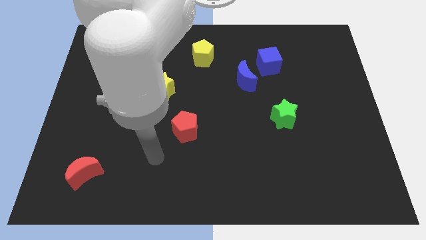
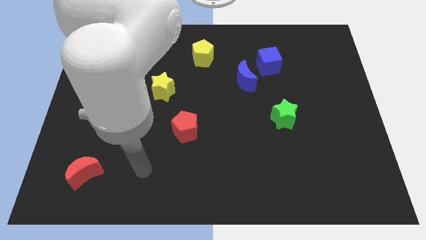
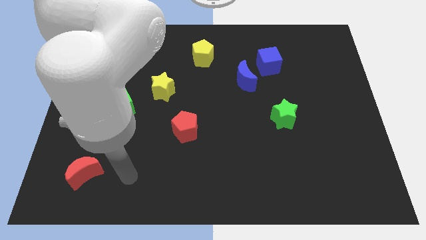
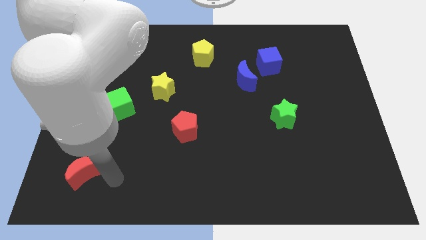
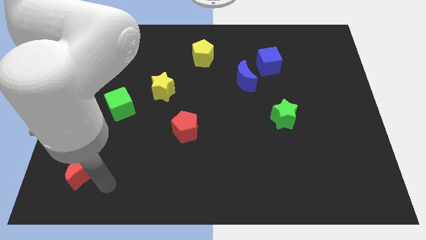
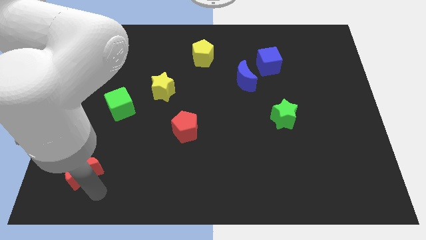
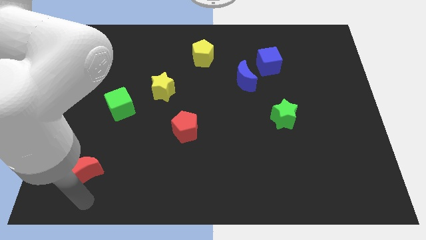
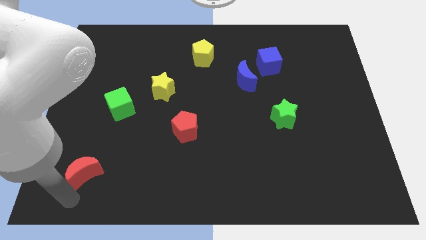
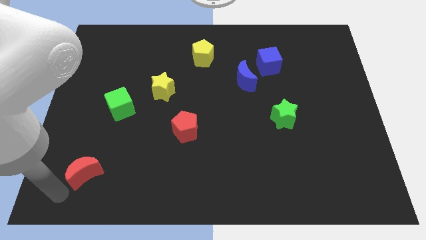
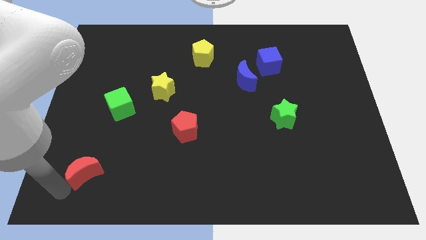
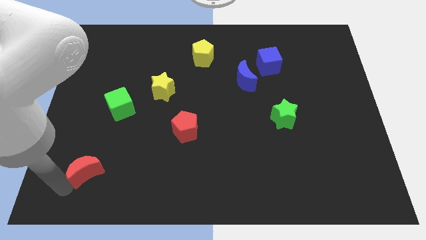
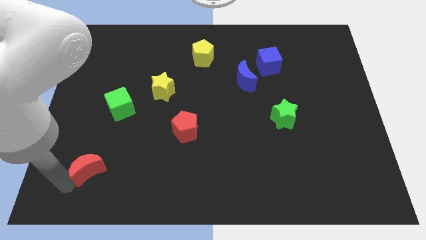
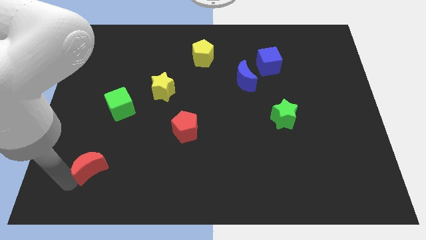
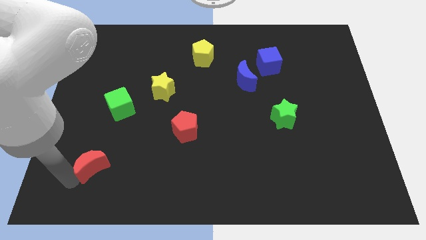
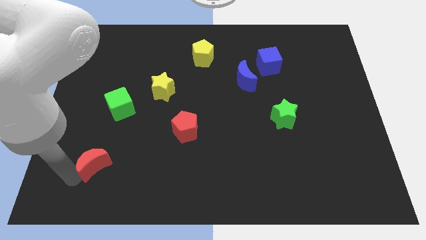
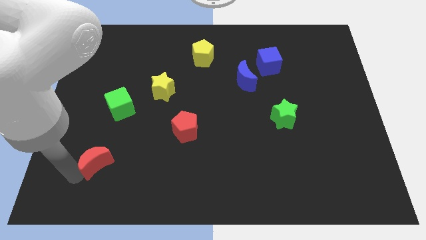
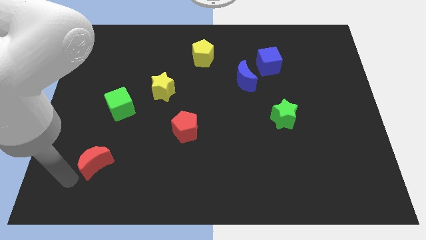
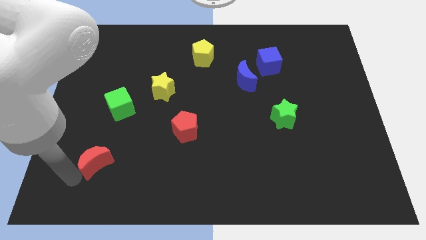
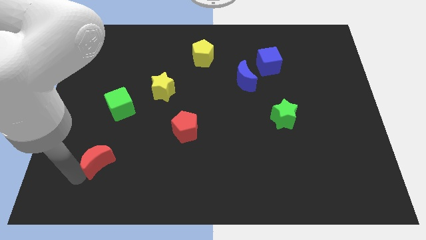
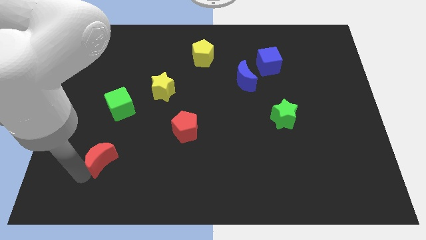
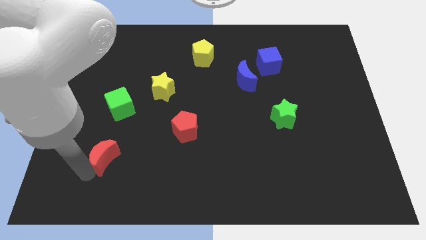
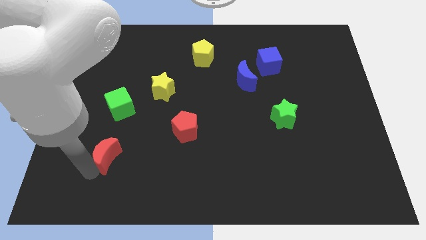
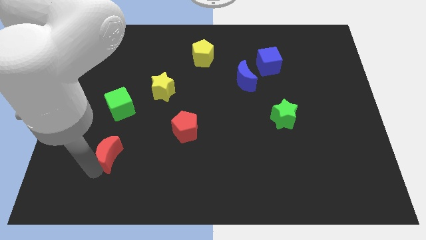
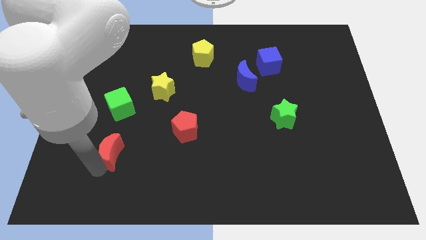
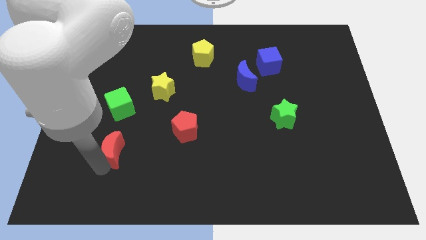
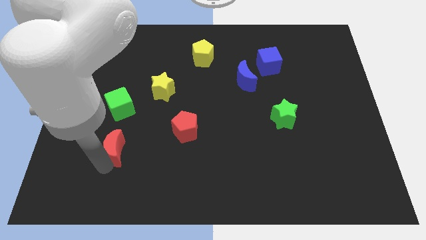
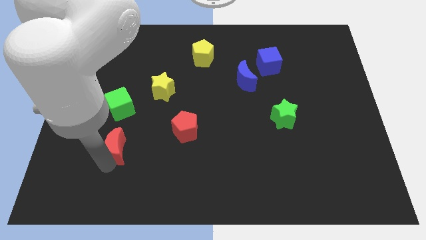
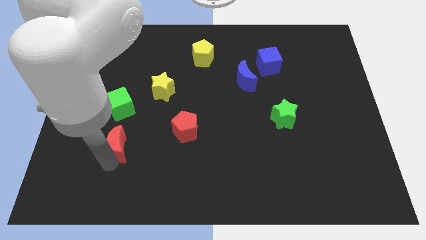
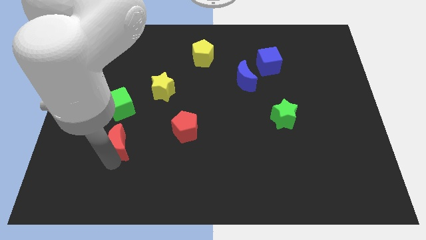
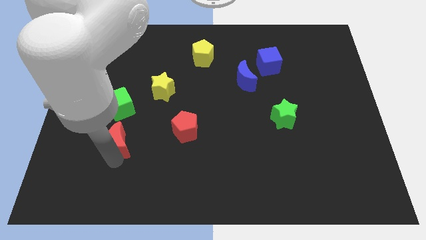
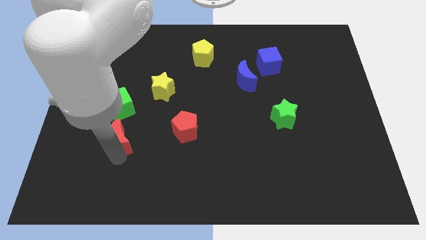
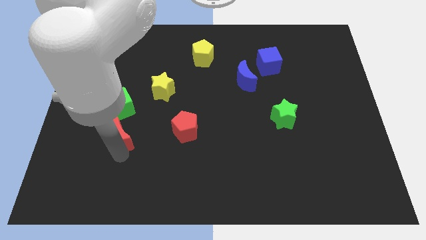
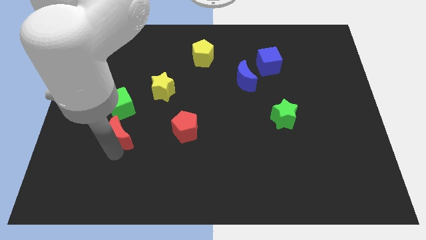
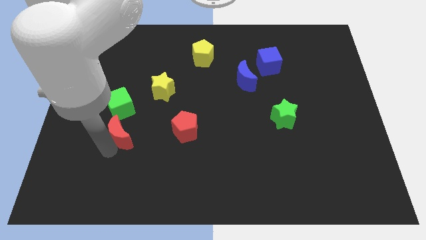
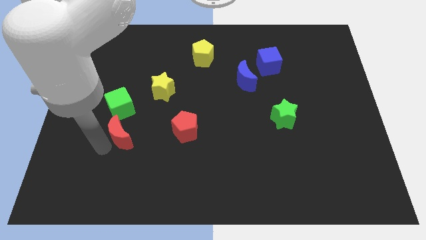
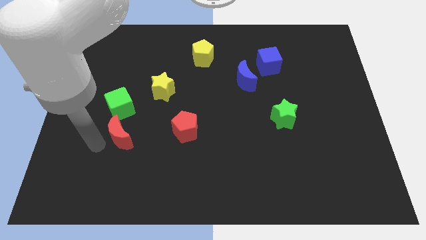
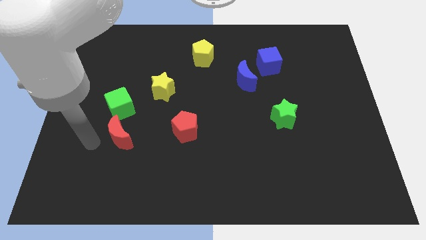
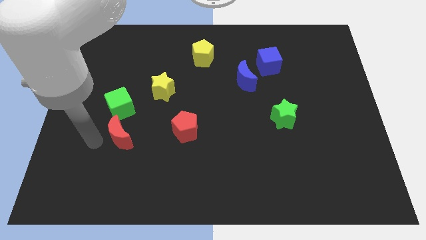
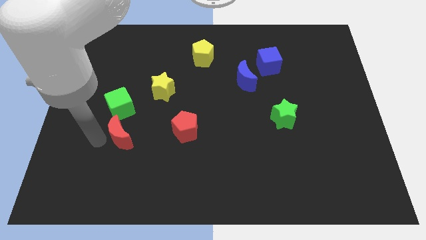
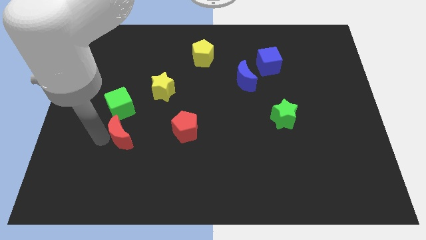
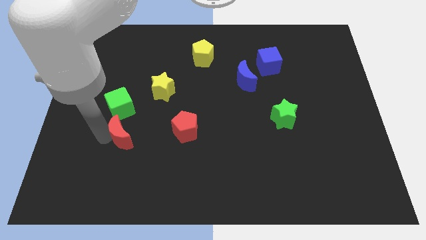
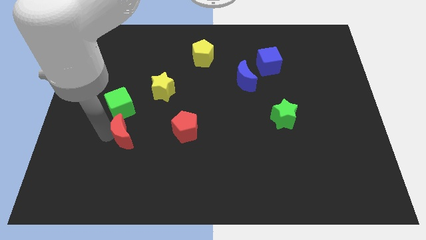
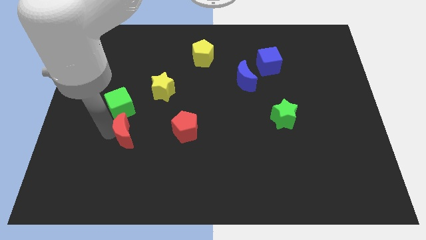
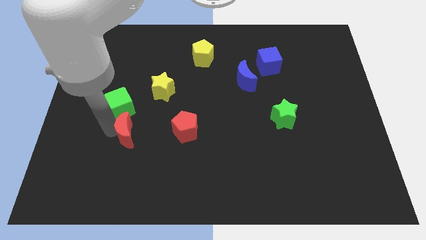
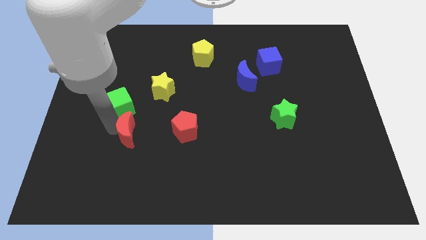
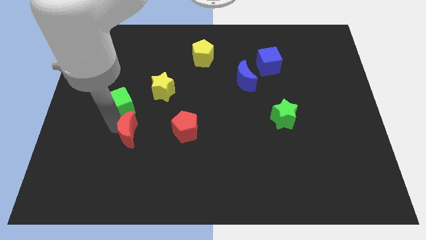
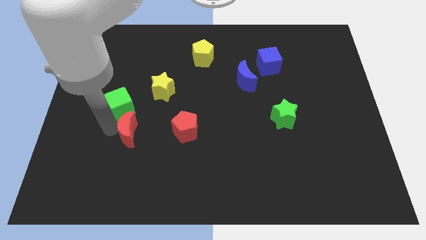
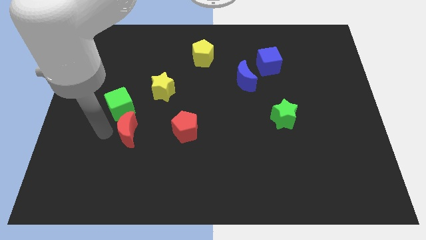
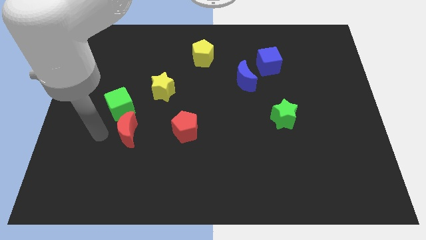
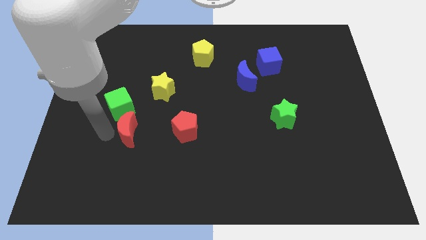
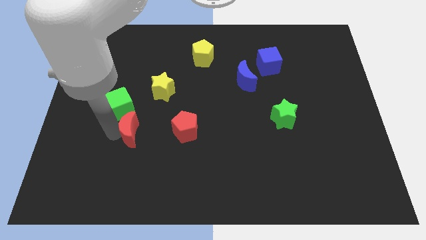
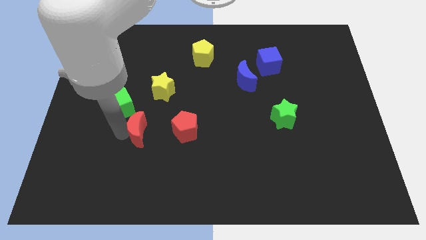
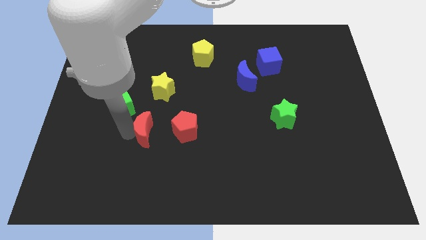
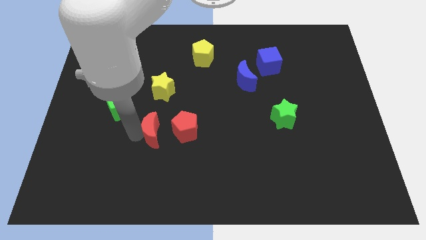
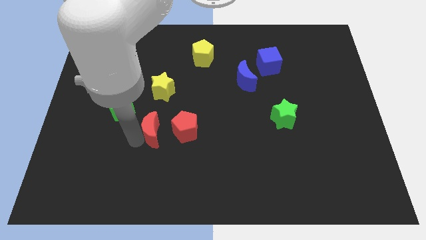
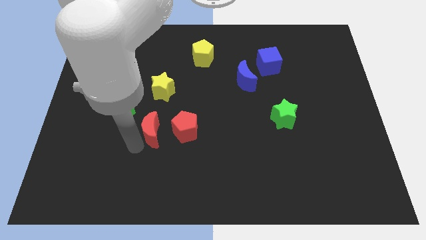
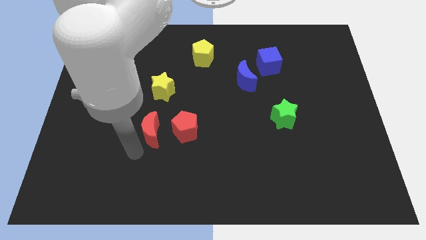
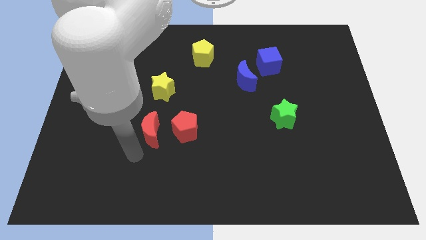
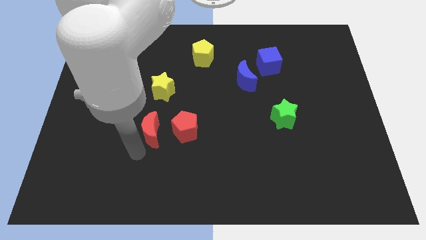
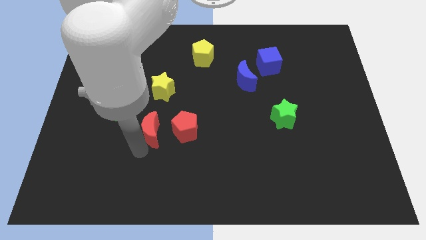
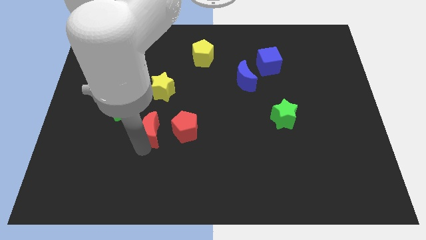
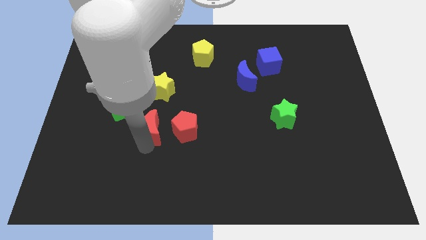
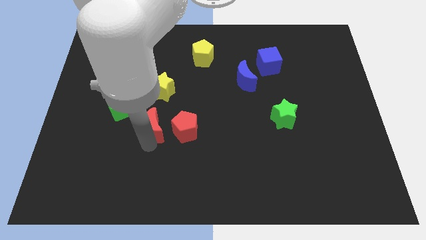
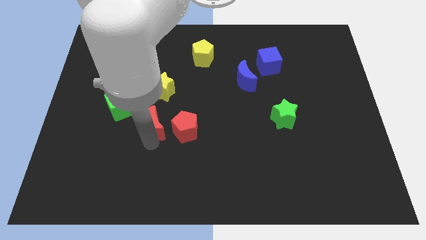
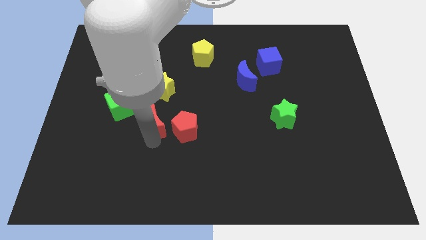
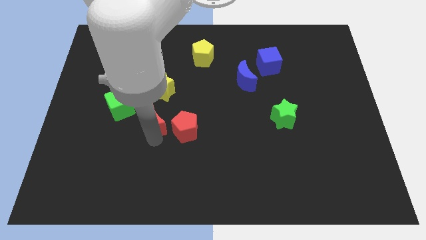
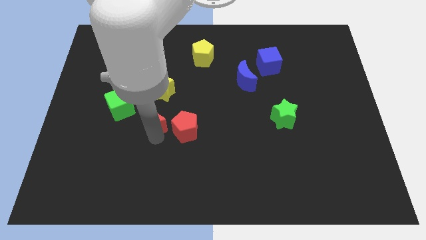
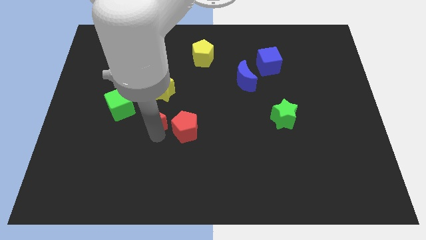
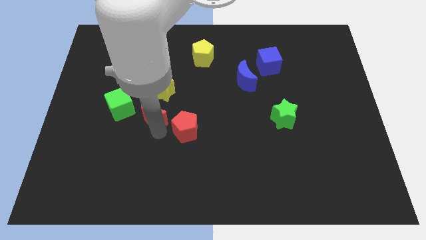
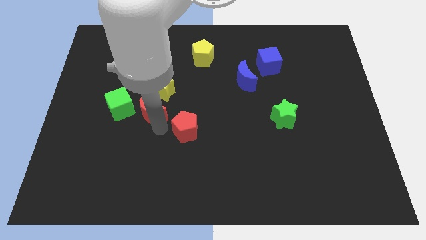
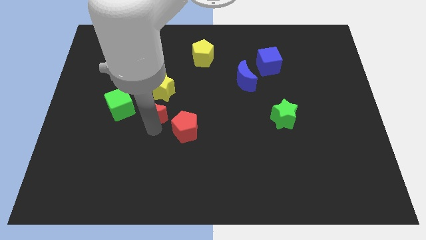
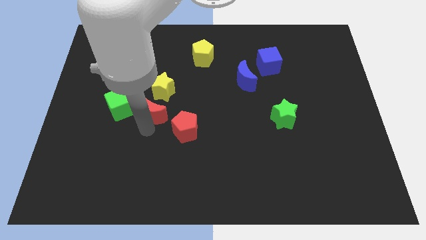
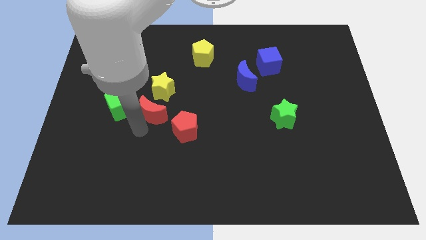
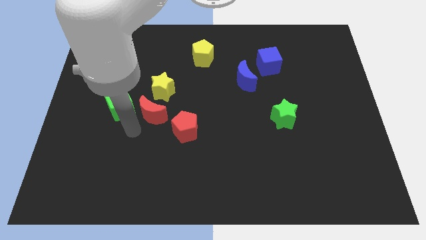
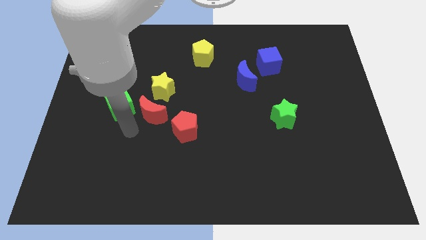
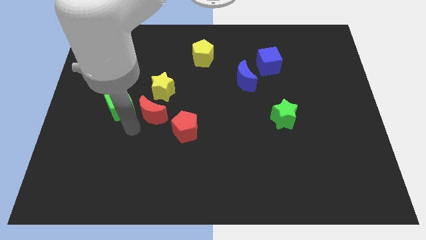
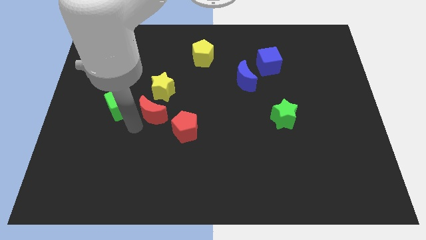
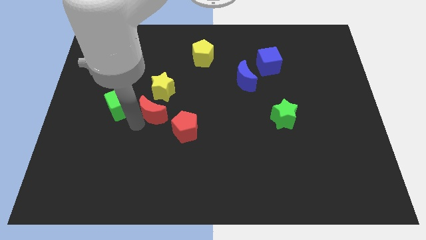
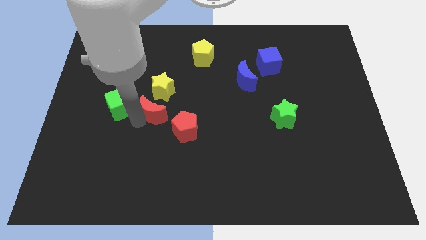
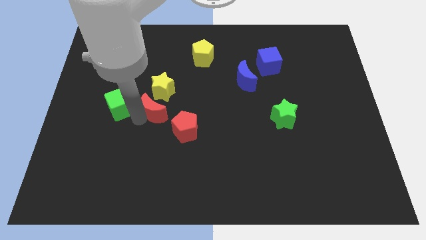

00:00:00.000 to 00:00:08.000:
slide the red moon up and to the right
